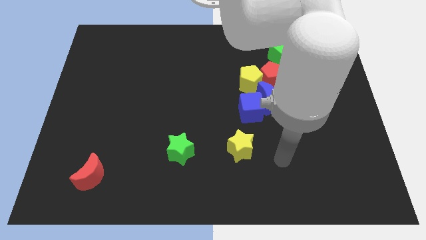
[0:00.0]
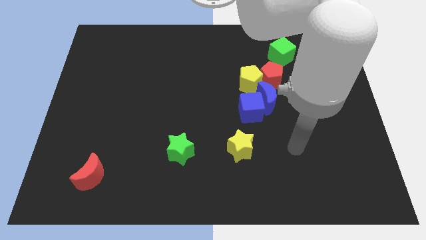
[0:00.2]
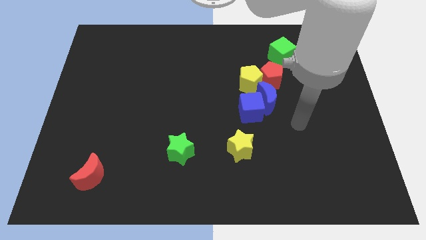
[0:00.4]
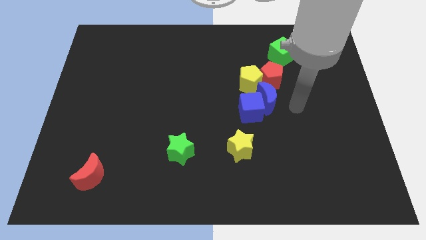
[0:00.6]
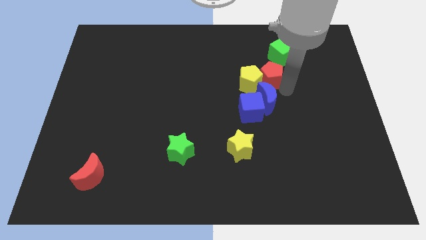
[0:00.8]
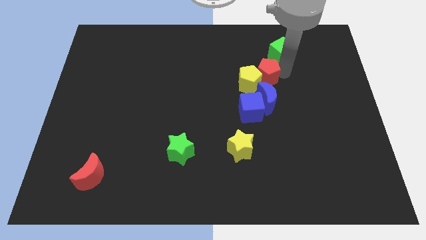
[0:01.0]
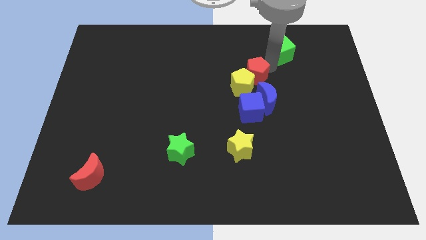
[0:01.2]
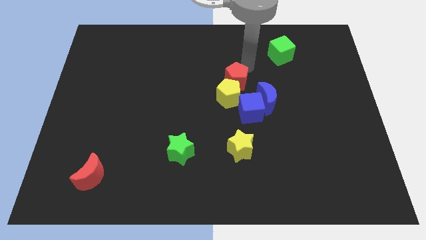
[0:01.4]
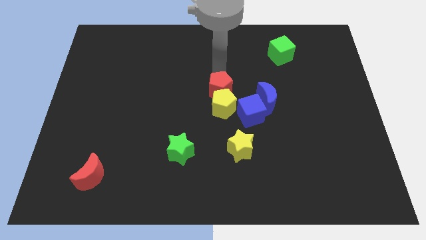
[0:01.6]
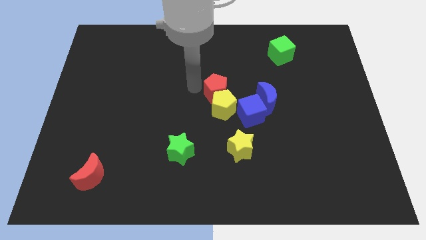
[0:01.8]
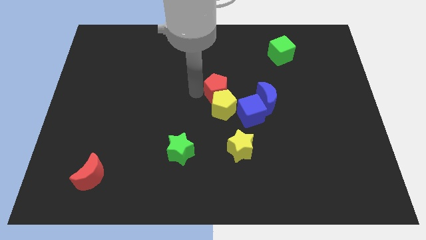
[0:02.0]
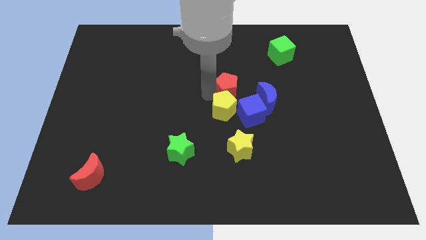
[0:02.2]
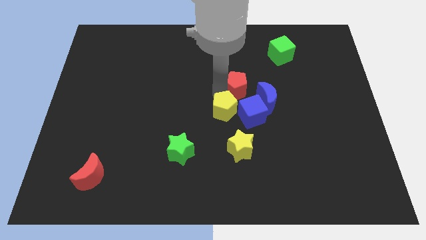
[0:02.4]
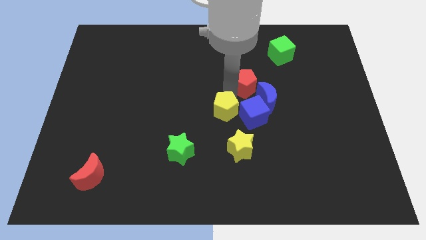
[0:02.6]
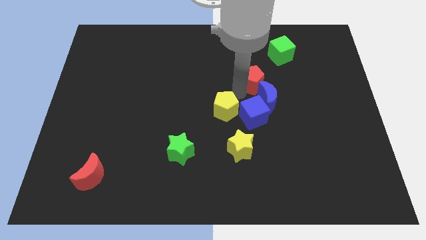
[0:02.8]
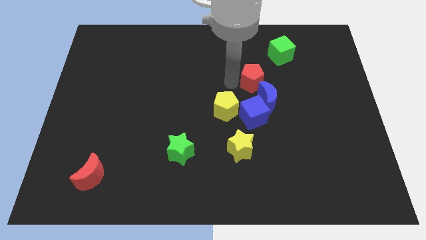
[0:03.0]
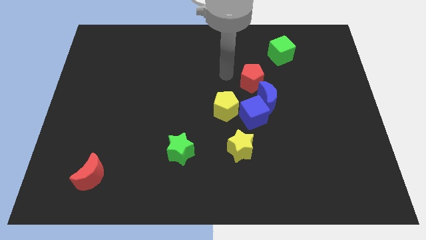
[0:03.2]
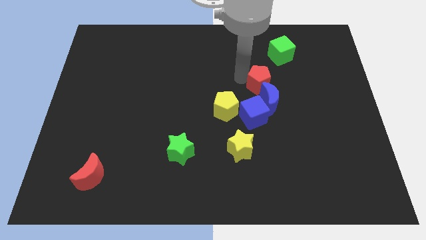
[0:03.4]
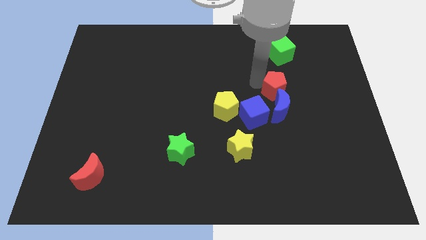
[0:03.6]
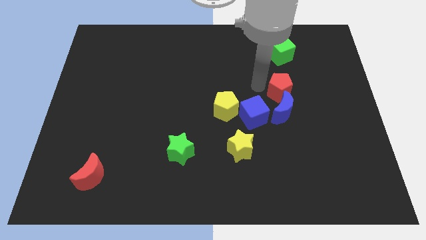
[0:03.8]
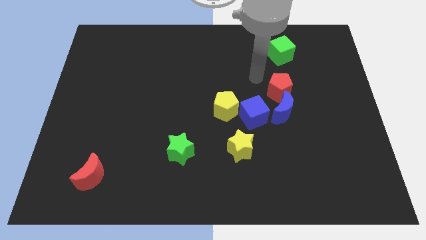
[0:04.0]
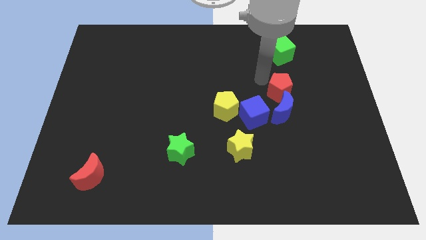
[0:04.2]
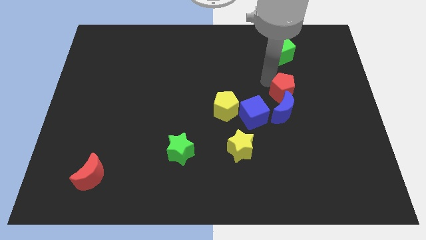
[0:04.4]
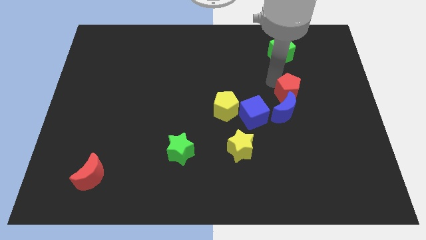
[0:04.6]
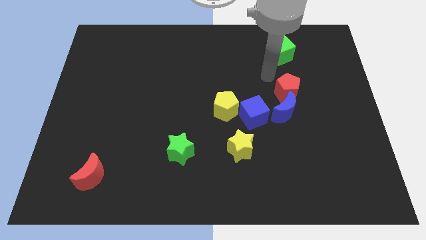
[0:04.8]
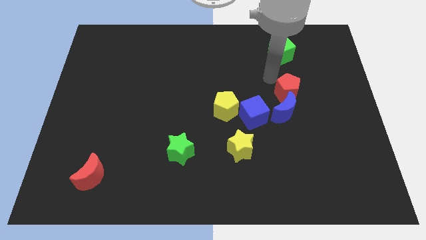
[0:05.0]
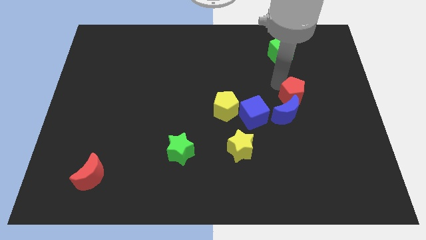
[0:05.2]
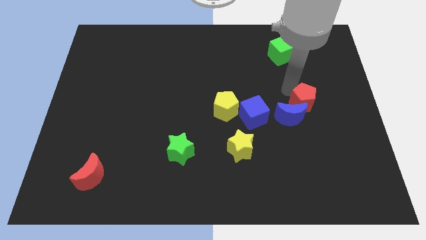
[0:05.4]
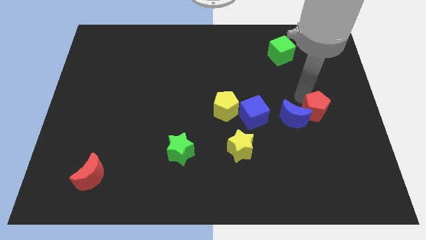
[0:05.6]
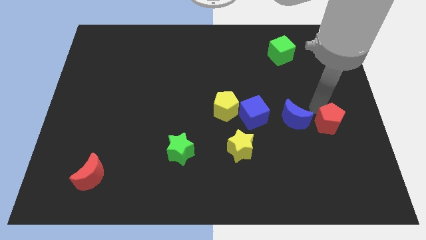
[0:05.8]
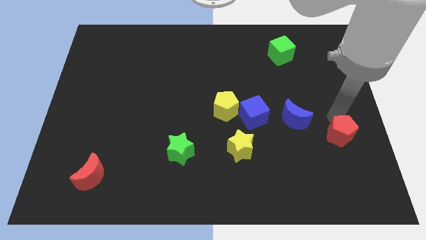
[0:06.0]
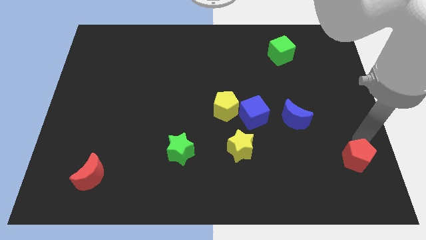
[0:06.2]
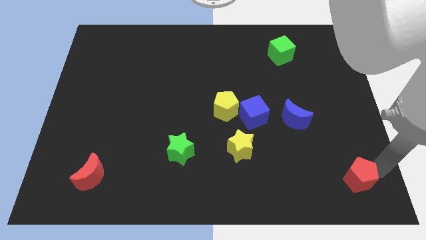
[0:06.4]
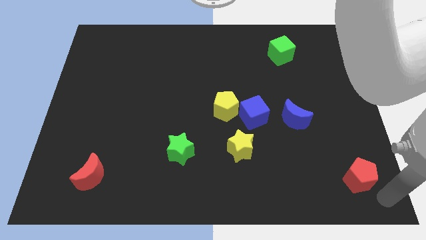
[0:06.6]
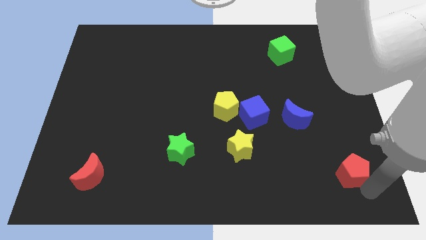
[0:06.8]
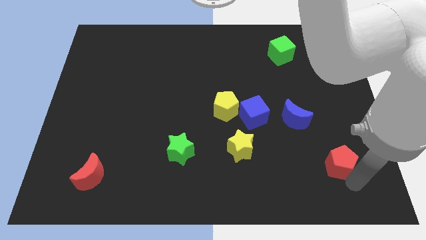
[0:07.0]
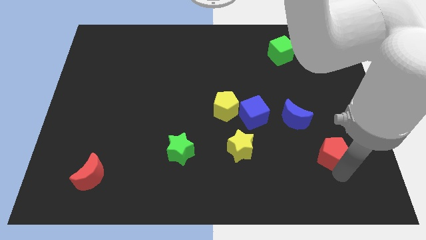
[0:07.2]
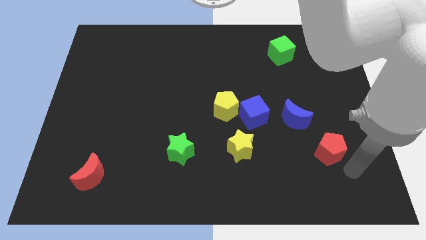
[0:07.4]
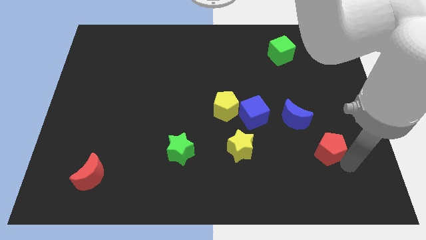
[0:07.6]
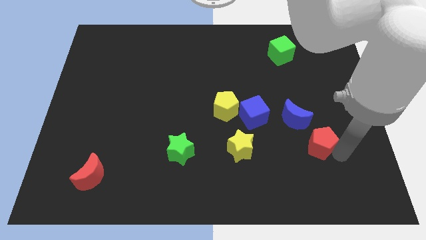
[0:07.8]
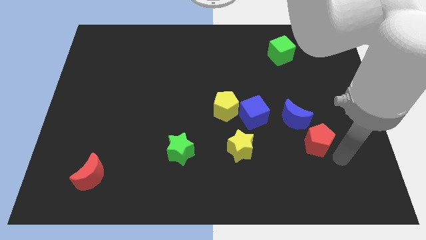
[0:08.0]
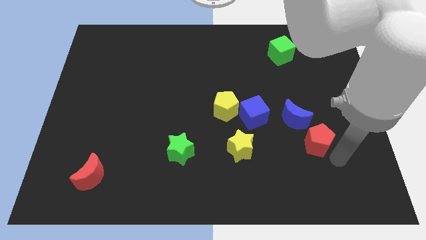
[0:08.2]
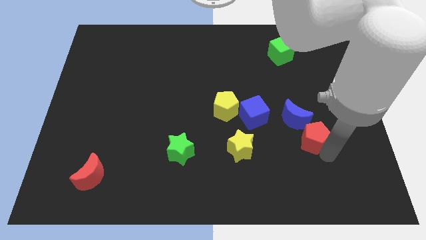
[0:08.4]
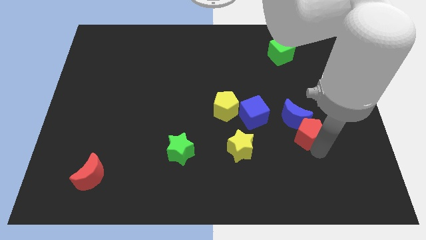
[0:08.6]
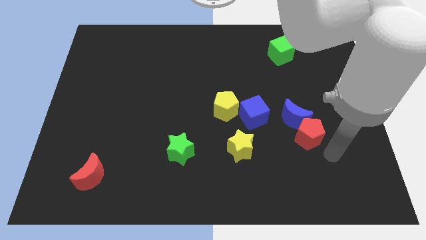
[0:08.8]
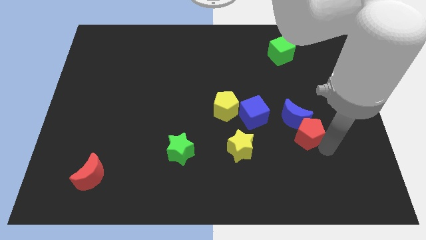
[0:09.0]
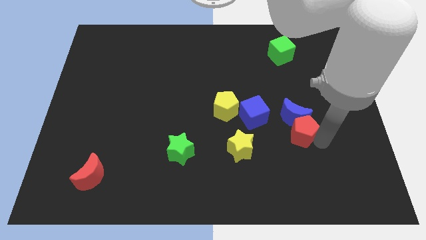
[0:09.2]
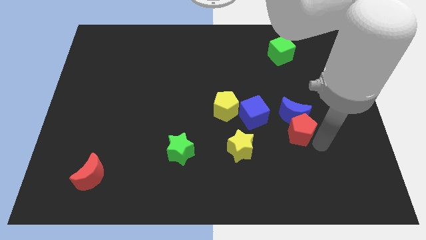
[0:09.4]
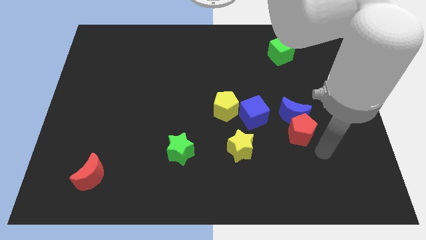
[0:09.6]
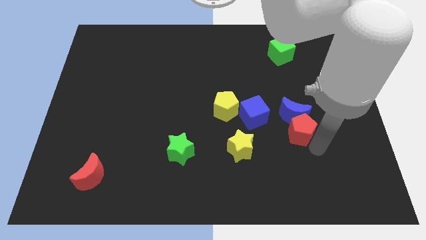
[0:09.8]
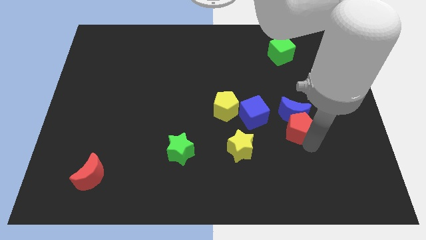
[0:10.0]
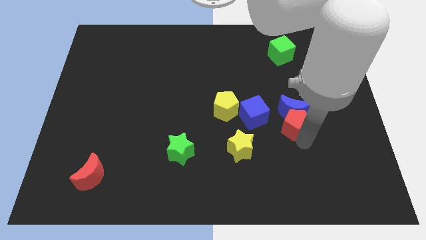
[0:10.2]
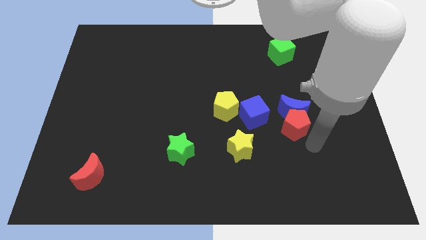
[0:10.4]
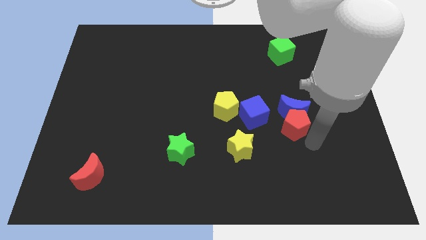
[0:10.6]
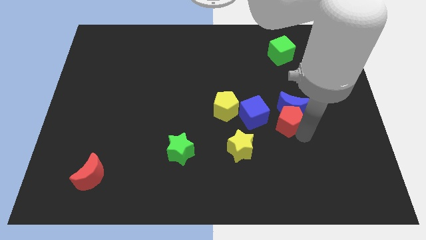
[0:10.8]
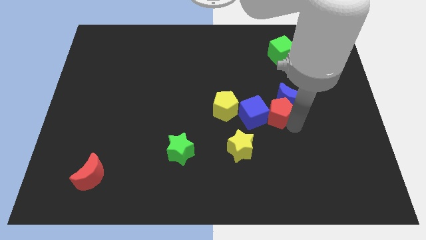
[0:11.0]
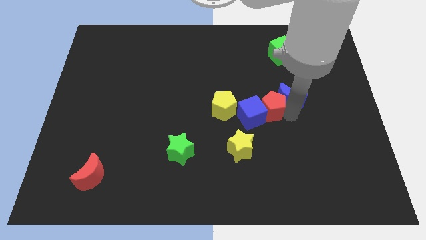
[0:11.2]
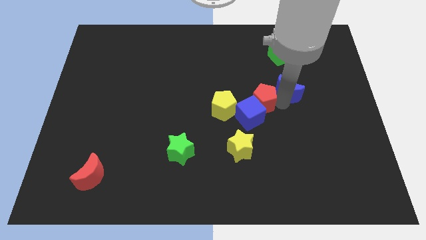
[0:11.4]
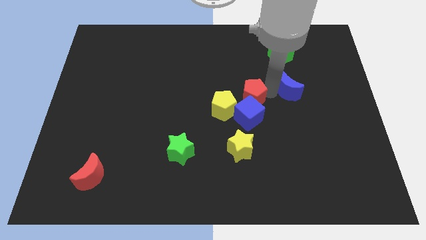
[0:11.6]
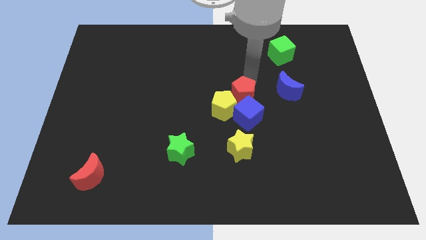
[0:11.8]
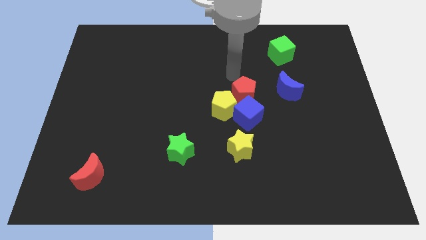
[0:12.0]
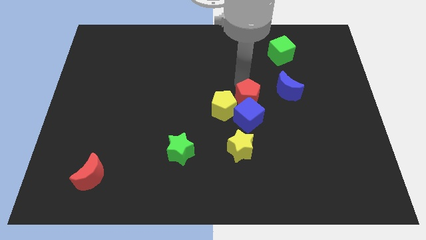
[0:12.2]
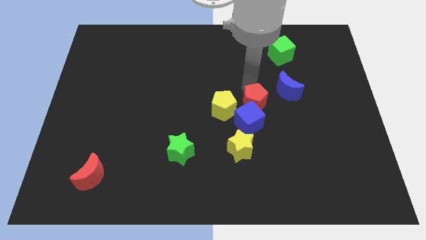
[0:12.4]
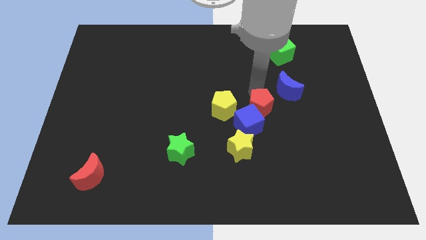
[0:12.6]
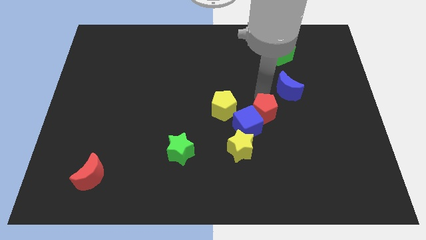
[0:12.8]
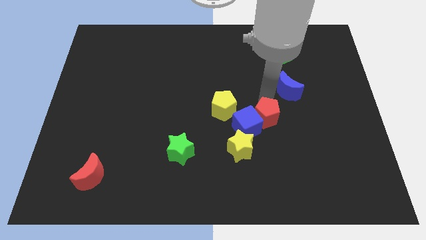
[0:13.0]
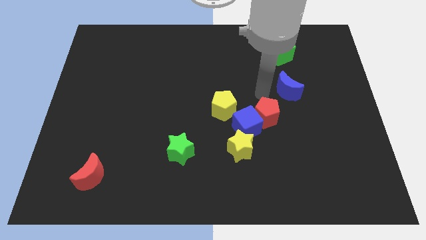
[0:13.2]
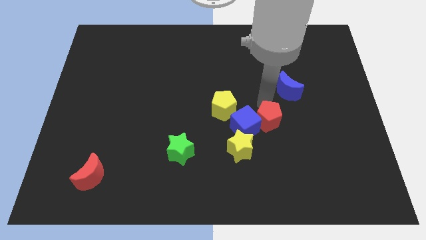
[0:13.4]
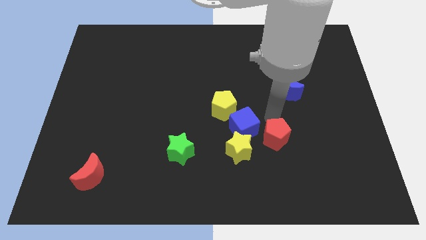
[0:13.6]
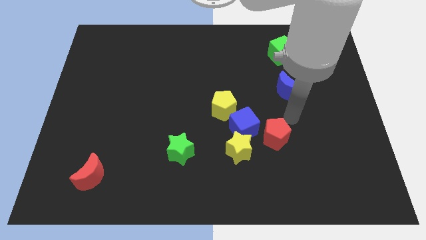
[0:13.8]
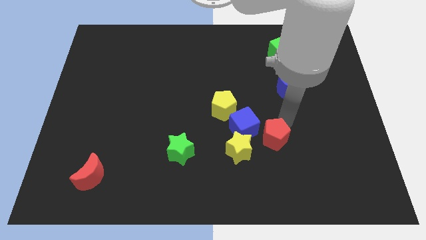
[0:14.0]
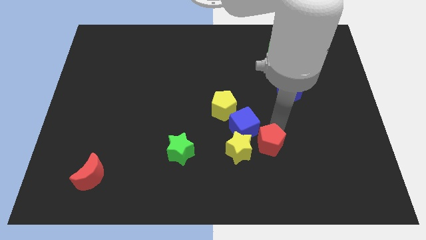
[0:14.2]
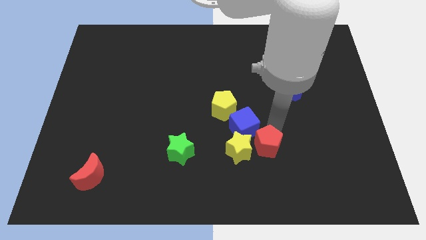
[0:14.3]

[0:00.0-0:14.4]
slide the red pentagon to the bottom side of the blue cube
